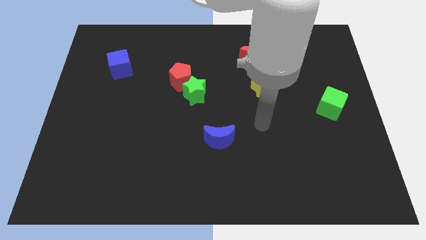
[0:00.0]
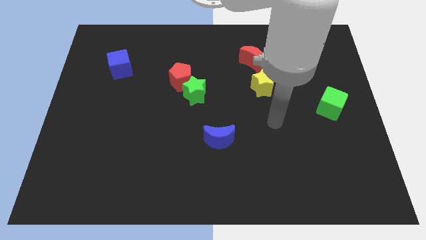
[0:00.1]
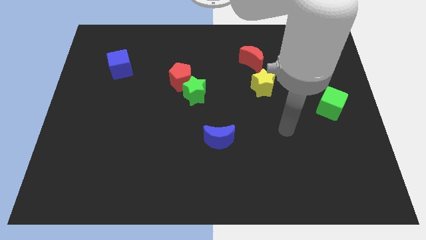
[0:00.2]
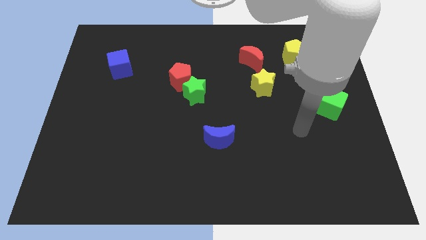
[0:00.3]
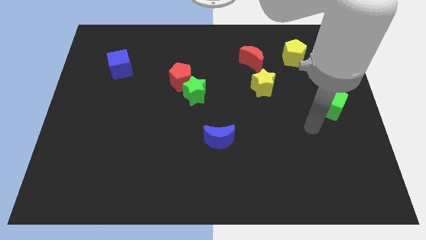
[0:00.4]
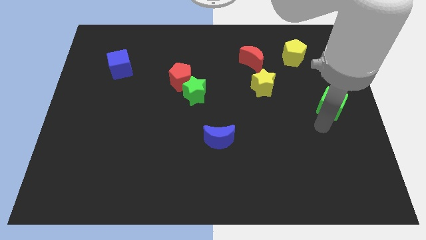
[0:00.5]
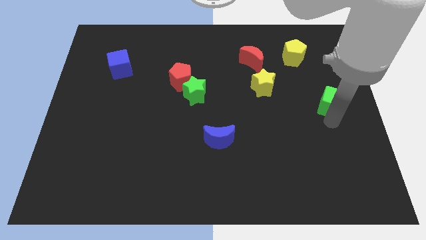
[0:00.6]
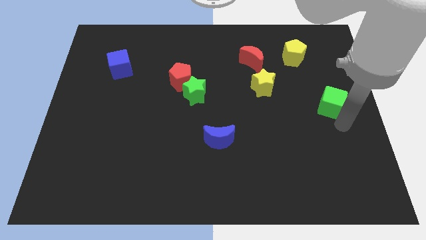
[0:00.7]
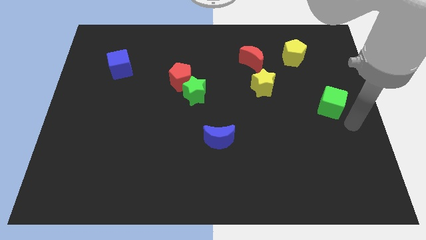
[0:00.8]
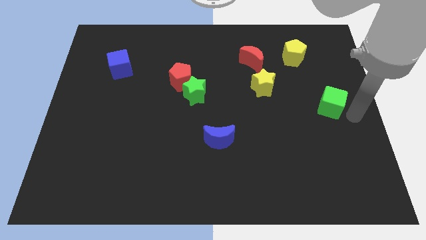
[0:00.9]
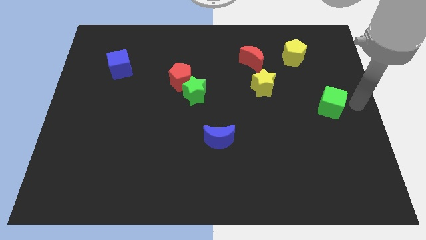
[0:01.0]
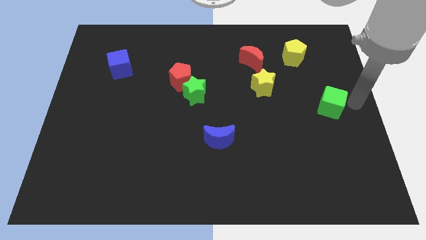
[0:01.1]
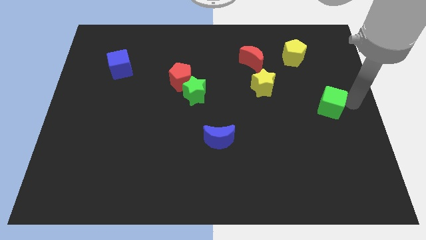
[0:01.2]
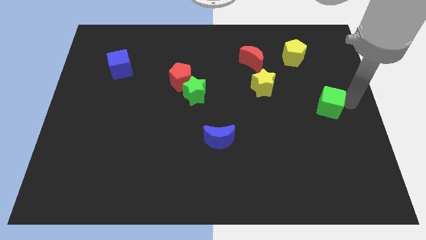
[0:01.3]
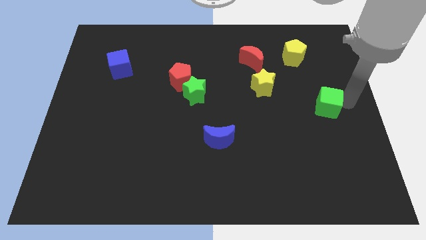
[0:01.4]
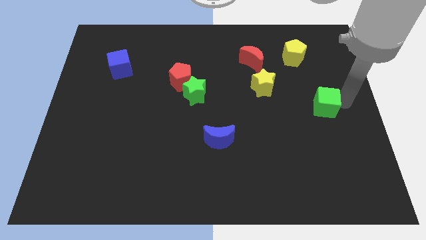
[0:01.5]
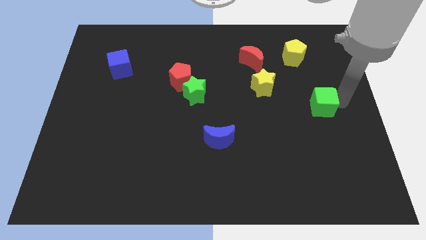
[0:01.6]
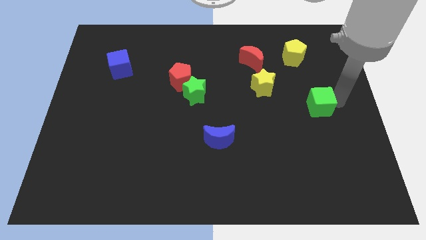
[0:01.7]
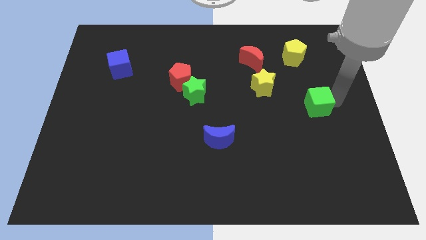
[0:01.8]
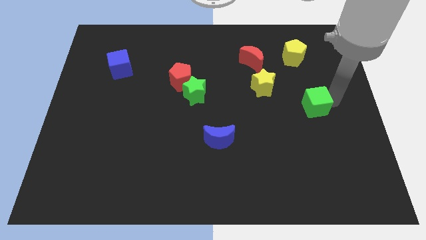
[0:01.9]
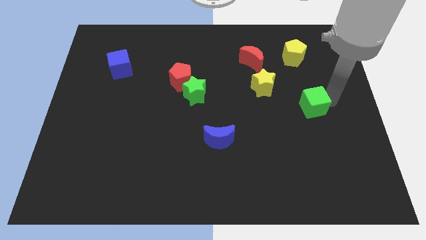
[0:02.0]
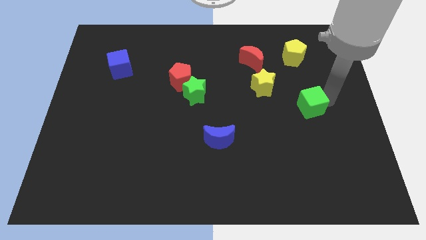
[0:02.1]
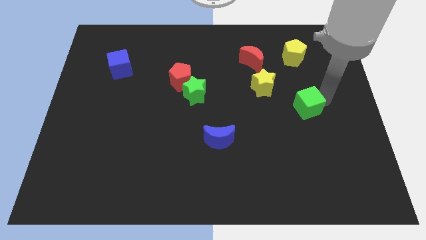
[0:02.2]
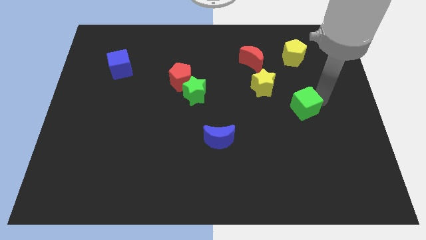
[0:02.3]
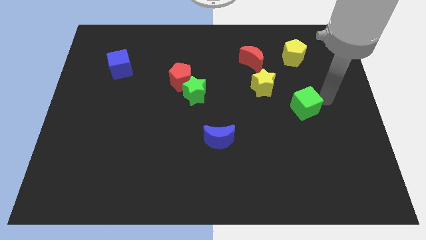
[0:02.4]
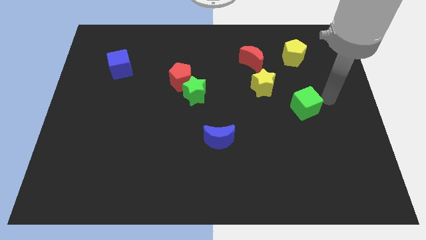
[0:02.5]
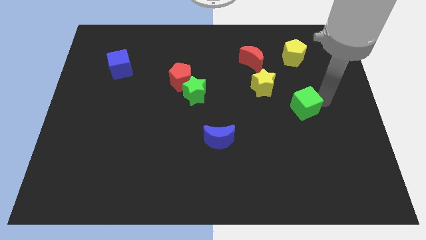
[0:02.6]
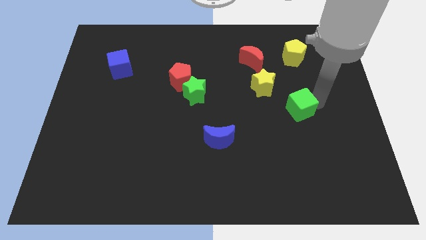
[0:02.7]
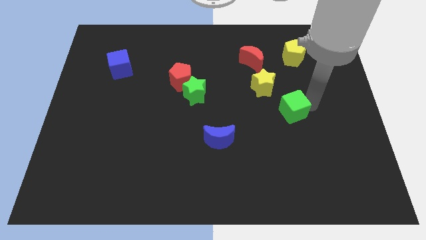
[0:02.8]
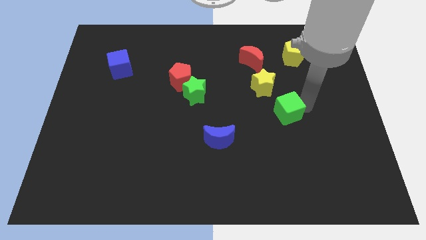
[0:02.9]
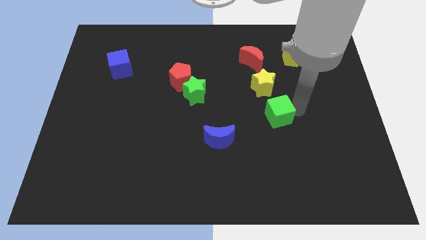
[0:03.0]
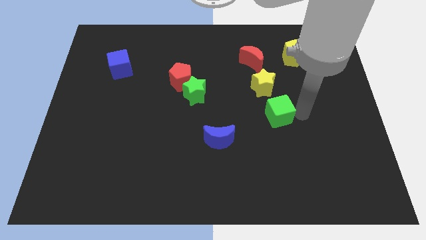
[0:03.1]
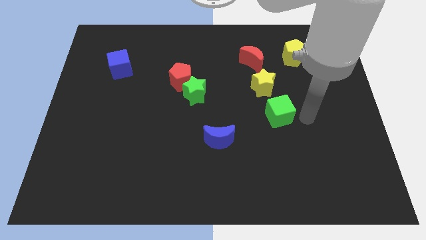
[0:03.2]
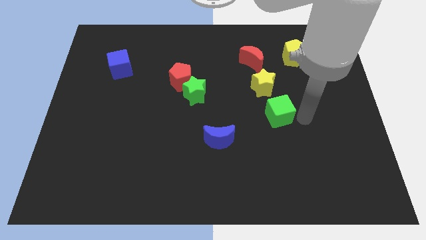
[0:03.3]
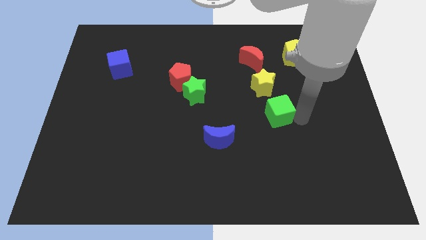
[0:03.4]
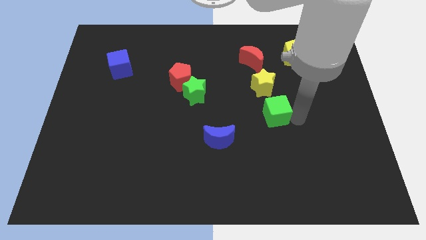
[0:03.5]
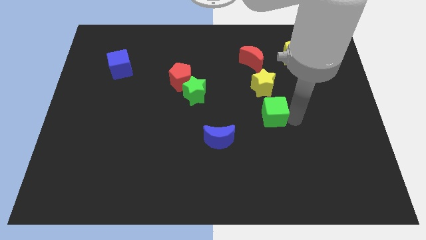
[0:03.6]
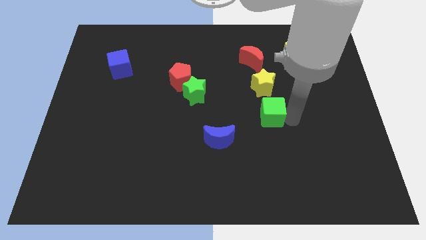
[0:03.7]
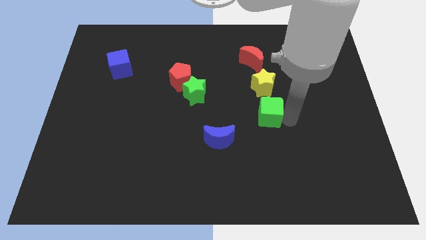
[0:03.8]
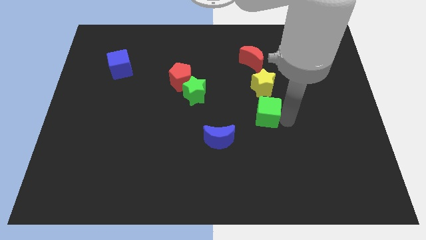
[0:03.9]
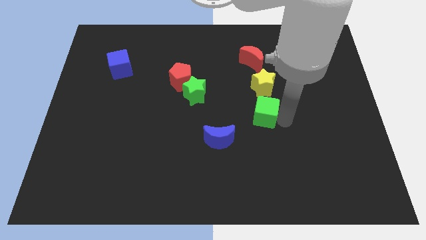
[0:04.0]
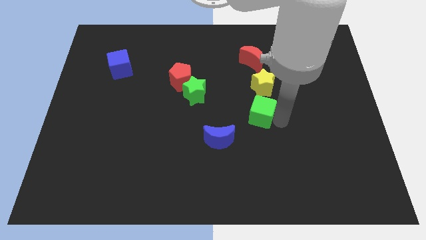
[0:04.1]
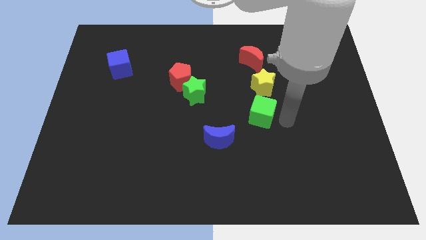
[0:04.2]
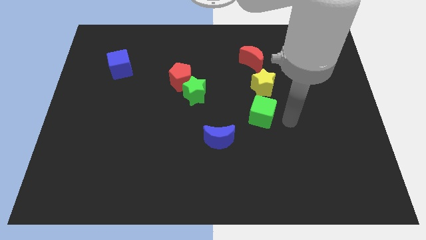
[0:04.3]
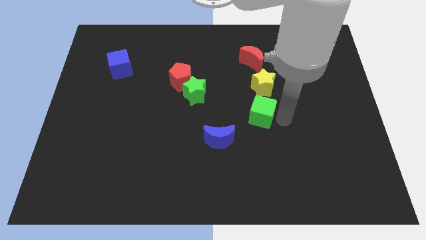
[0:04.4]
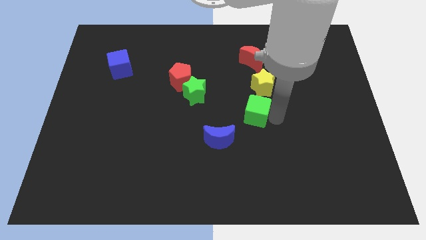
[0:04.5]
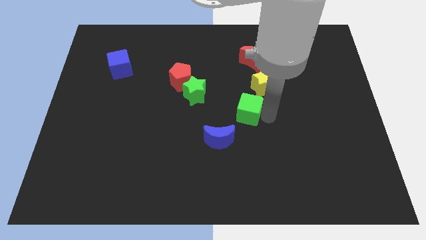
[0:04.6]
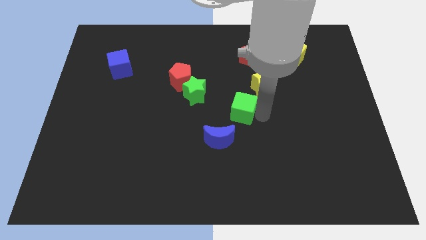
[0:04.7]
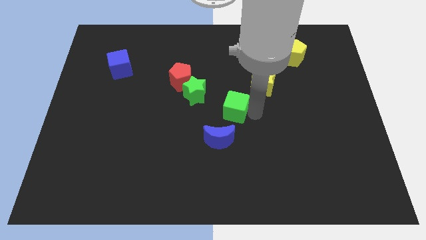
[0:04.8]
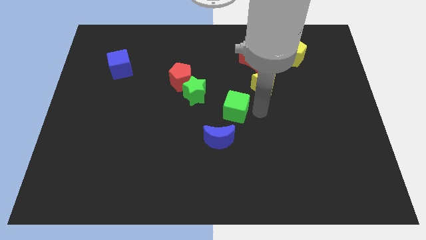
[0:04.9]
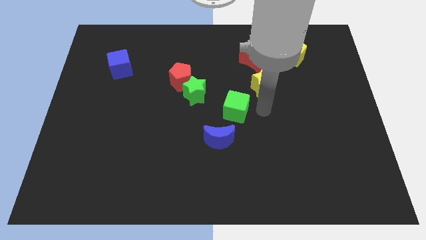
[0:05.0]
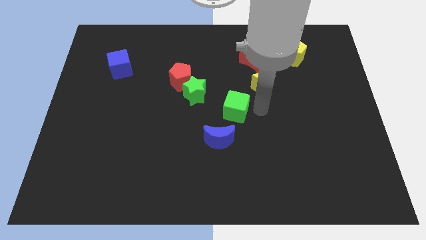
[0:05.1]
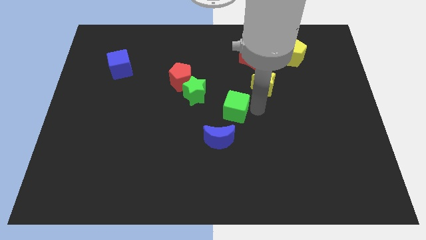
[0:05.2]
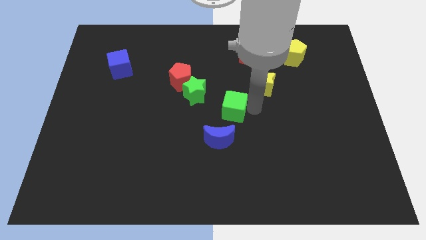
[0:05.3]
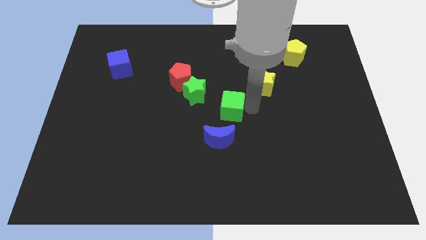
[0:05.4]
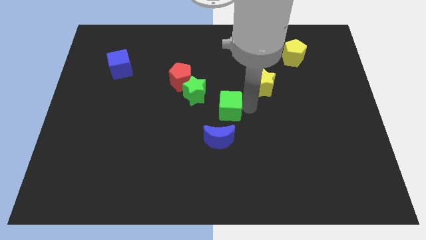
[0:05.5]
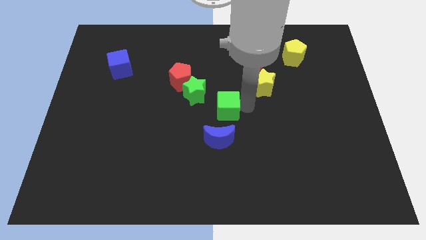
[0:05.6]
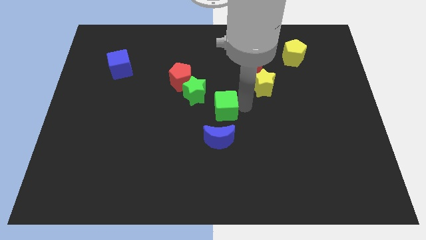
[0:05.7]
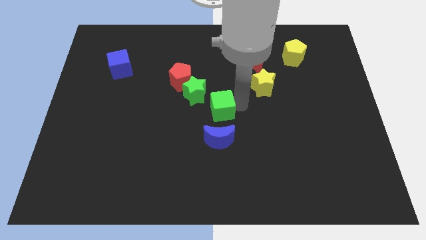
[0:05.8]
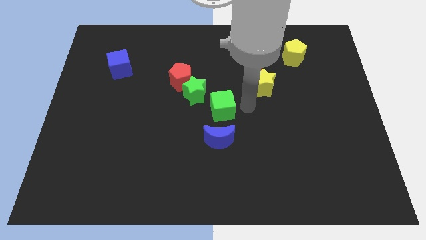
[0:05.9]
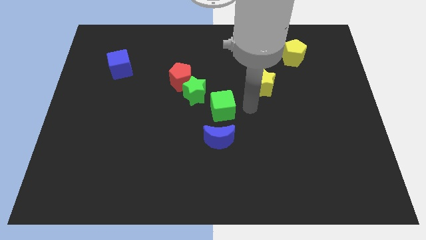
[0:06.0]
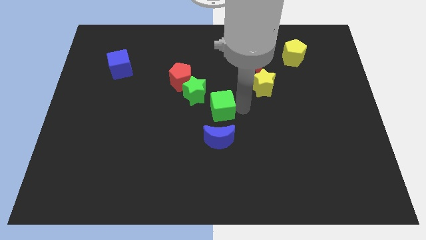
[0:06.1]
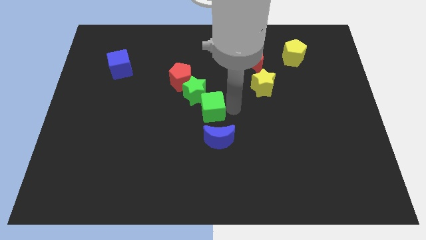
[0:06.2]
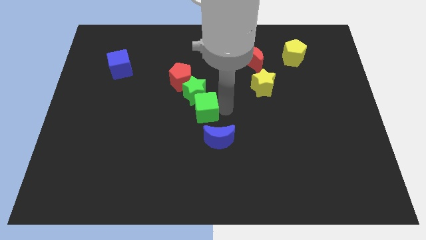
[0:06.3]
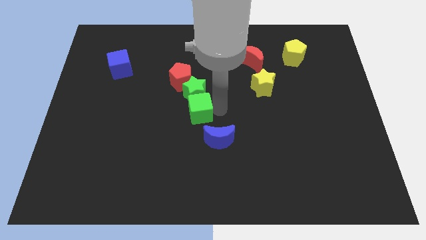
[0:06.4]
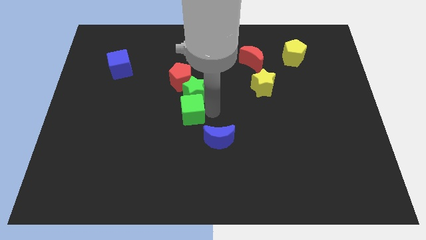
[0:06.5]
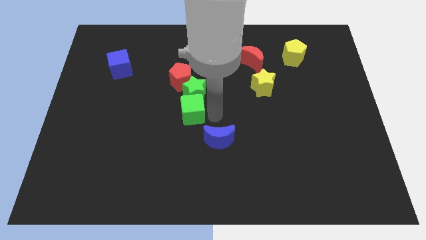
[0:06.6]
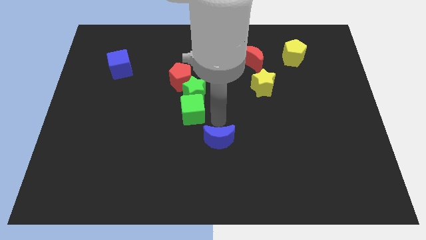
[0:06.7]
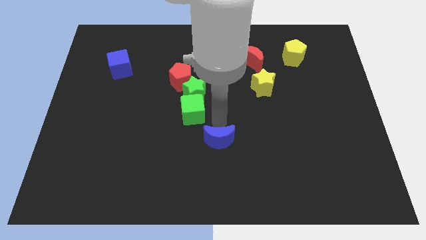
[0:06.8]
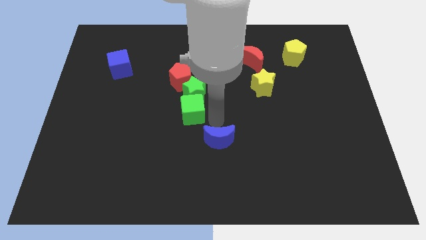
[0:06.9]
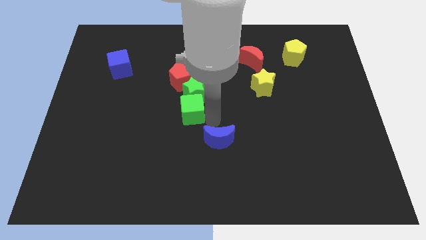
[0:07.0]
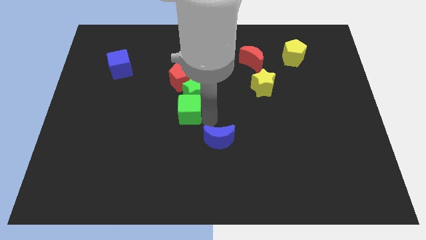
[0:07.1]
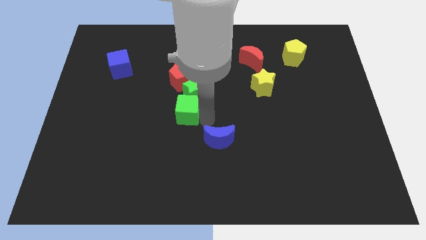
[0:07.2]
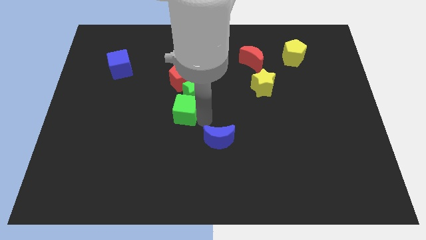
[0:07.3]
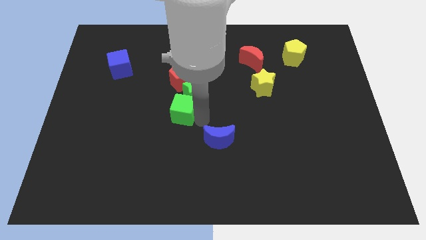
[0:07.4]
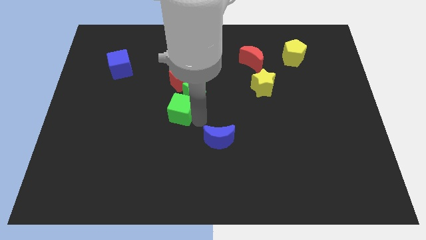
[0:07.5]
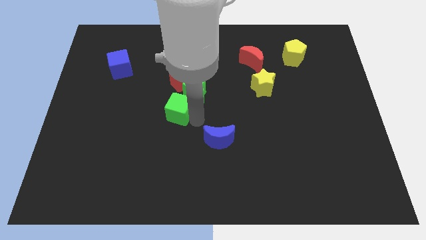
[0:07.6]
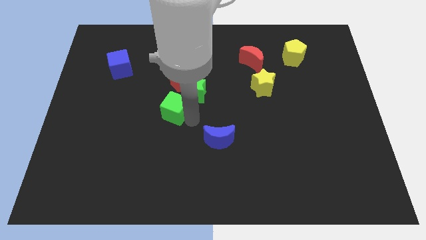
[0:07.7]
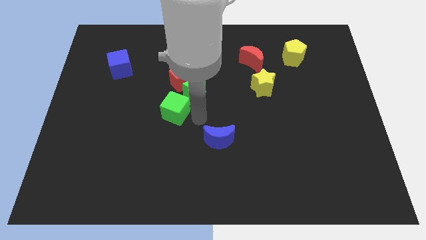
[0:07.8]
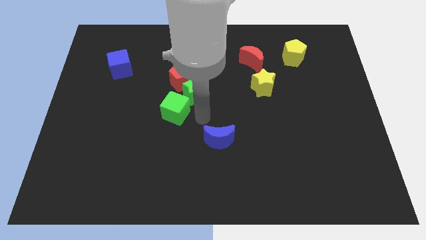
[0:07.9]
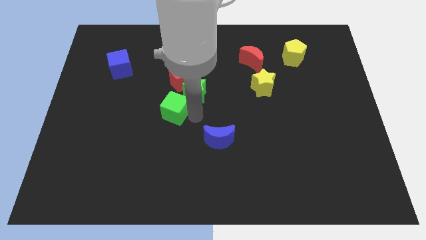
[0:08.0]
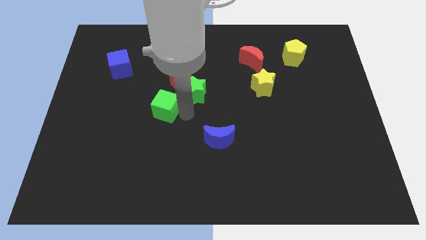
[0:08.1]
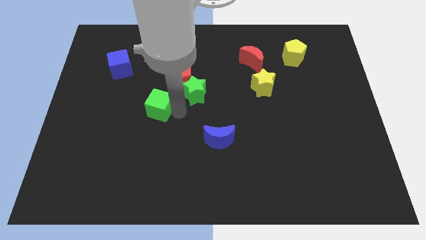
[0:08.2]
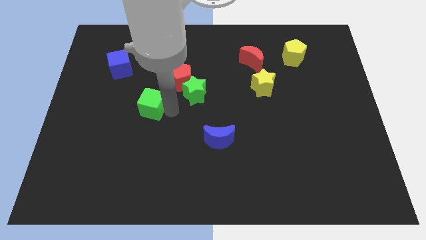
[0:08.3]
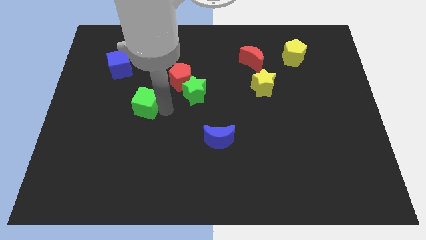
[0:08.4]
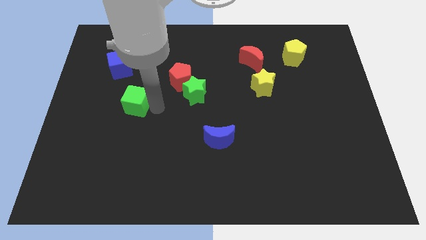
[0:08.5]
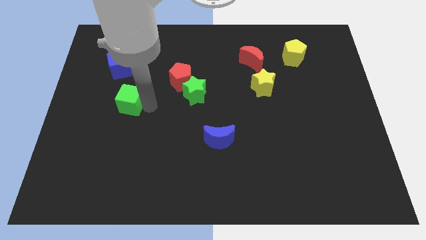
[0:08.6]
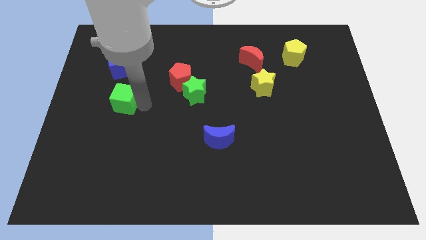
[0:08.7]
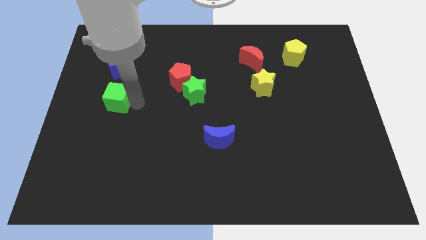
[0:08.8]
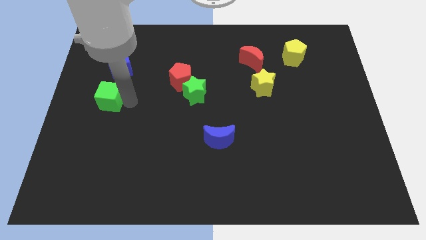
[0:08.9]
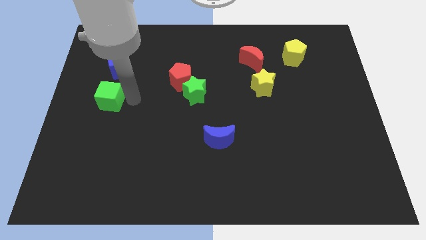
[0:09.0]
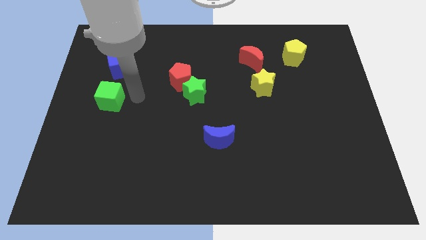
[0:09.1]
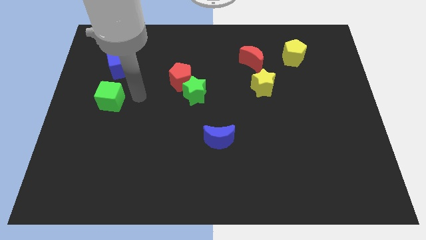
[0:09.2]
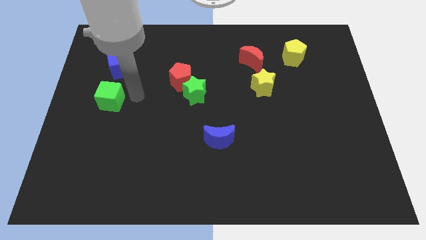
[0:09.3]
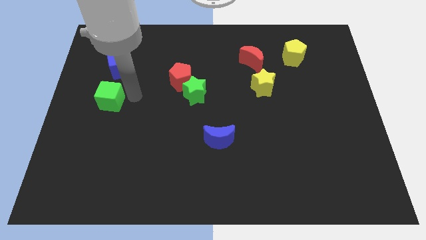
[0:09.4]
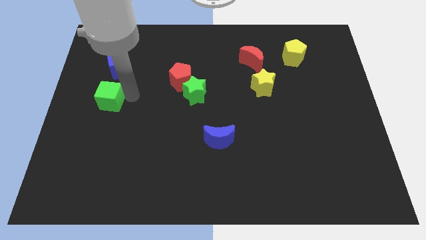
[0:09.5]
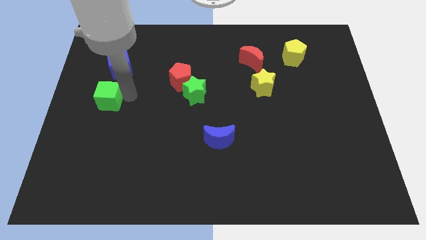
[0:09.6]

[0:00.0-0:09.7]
move the green cube to the center left
